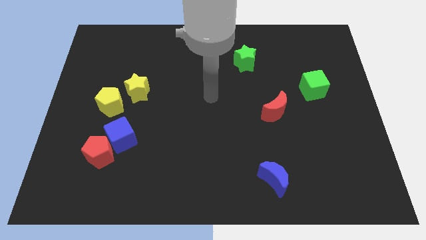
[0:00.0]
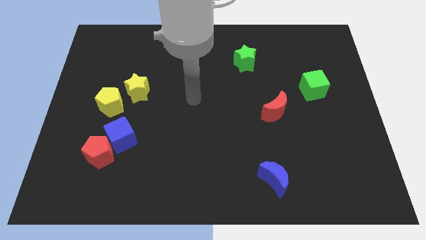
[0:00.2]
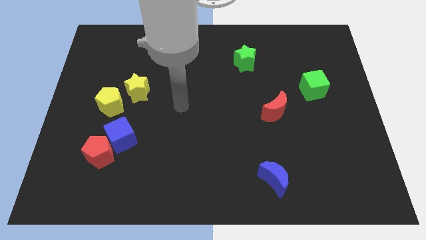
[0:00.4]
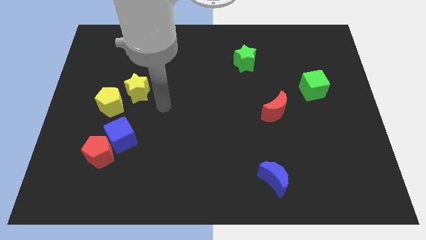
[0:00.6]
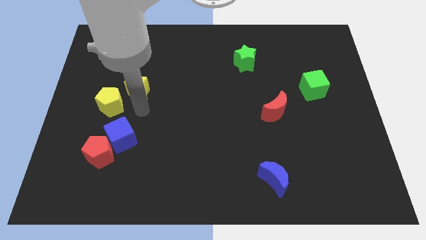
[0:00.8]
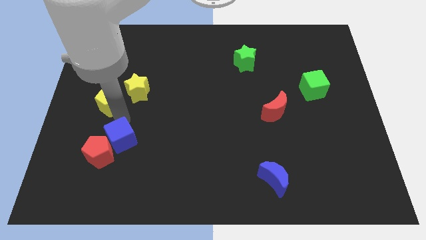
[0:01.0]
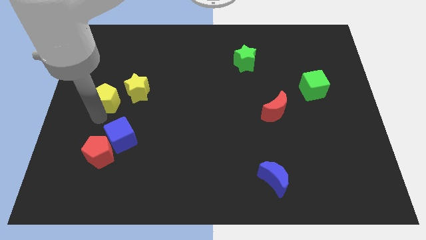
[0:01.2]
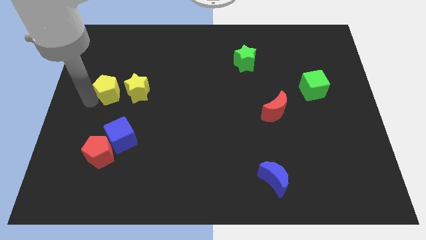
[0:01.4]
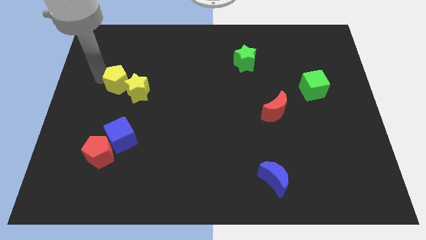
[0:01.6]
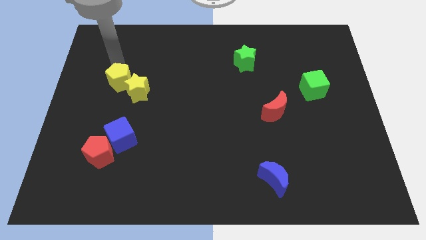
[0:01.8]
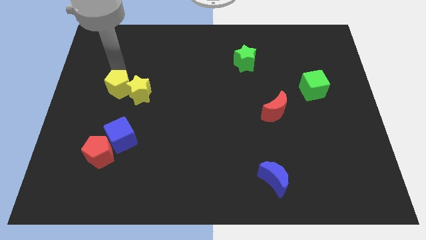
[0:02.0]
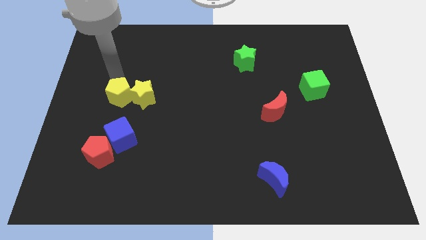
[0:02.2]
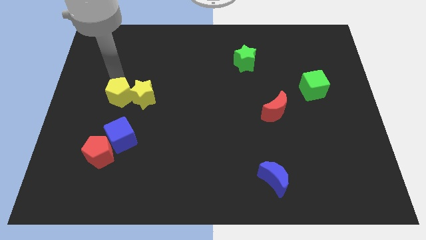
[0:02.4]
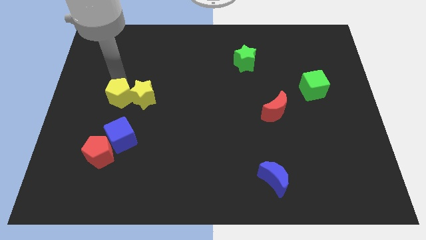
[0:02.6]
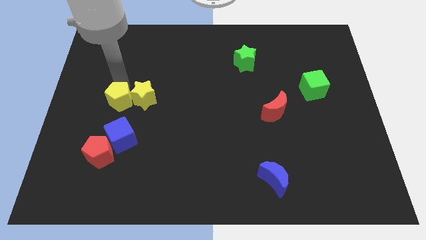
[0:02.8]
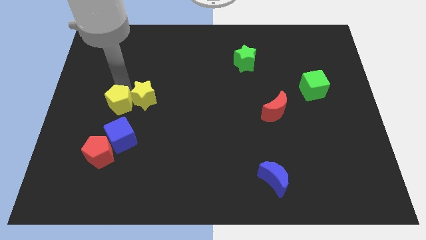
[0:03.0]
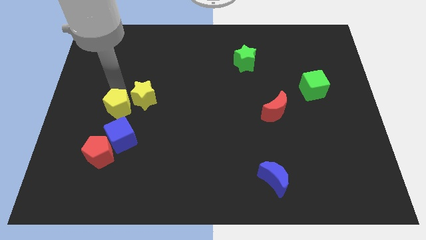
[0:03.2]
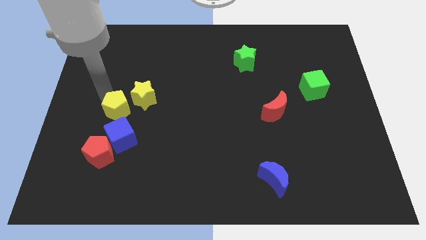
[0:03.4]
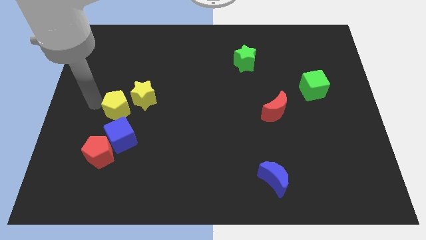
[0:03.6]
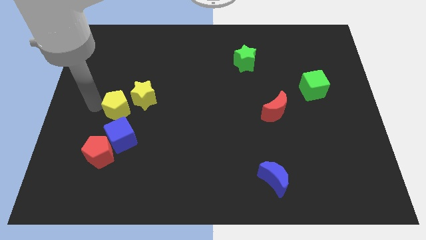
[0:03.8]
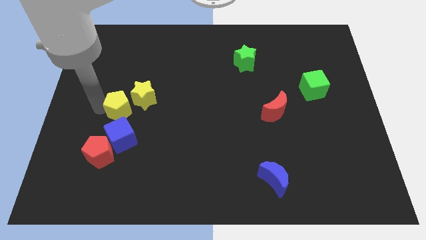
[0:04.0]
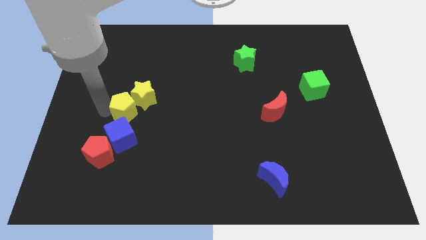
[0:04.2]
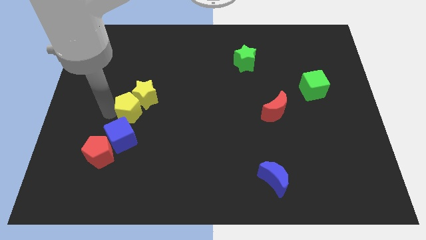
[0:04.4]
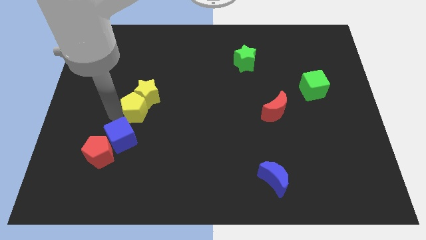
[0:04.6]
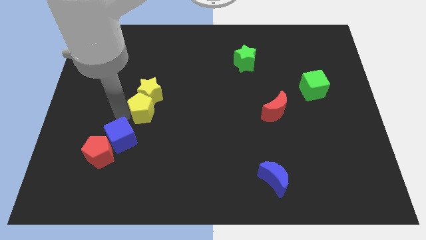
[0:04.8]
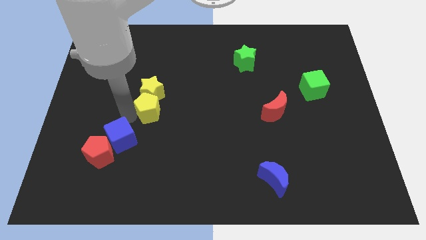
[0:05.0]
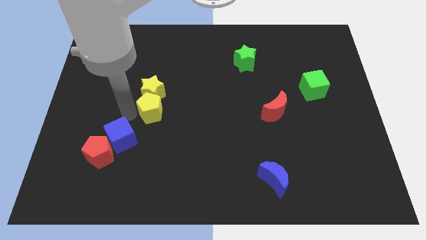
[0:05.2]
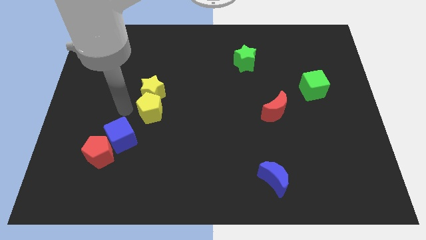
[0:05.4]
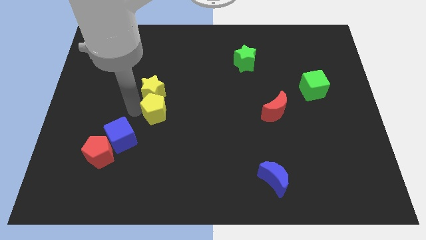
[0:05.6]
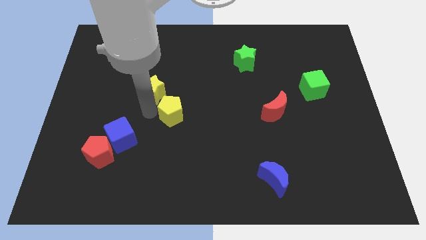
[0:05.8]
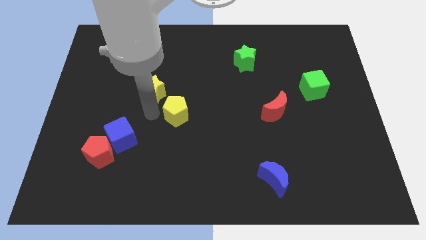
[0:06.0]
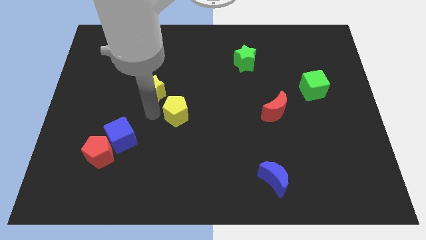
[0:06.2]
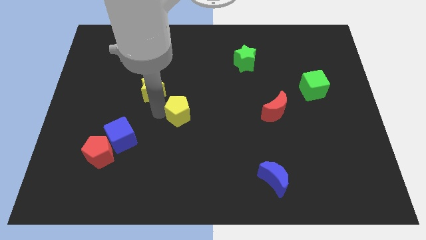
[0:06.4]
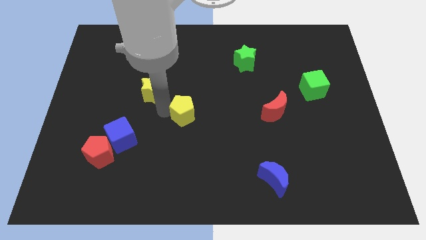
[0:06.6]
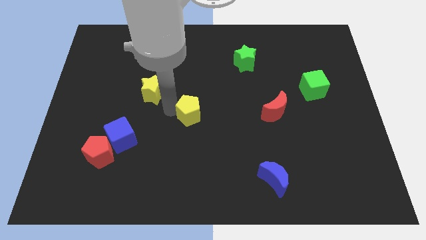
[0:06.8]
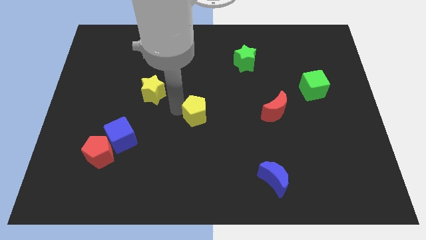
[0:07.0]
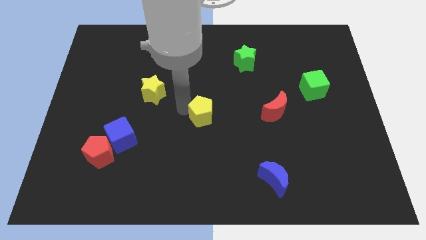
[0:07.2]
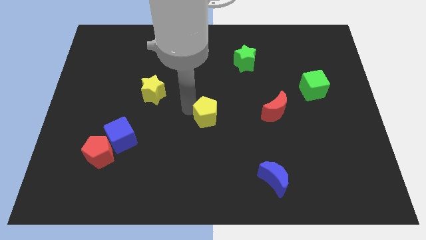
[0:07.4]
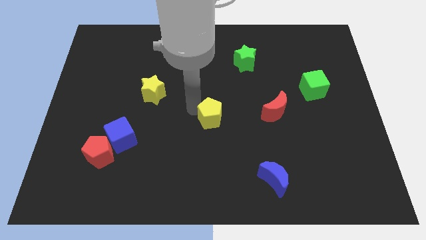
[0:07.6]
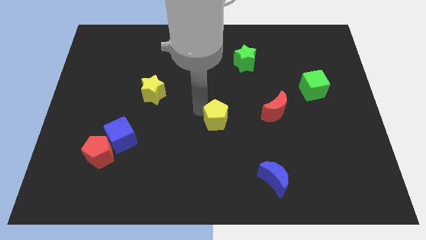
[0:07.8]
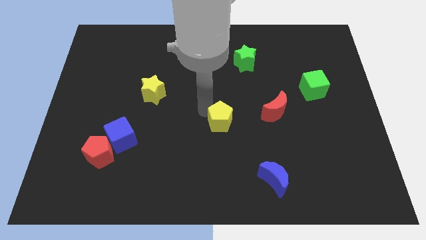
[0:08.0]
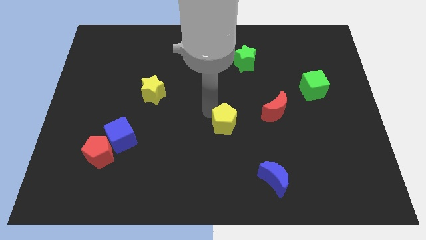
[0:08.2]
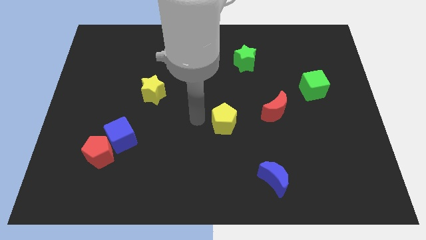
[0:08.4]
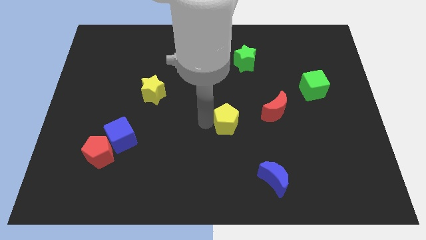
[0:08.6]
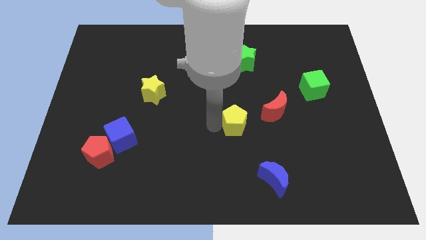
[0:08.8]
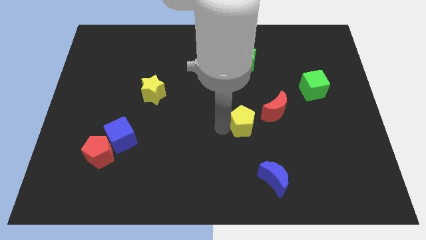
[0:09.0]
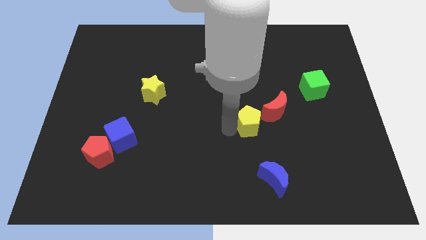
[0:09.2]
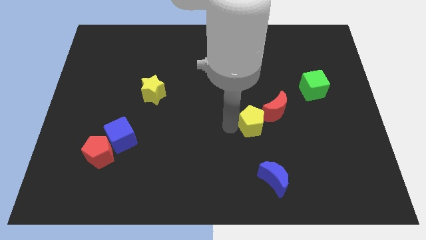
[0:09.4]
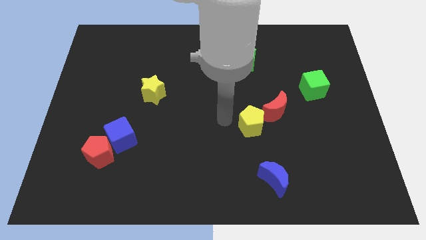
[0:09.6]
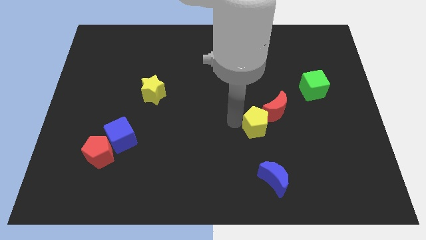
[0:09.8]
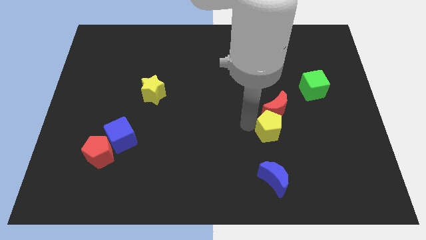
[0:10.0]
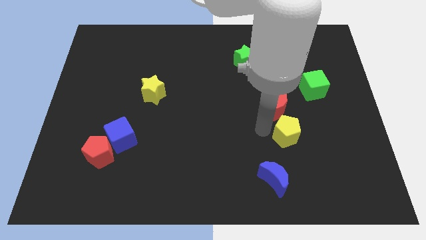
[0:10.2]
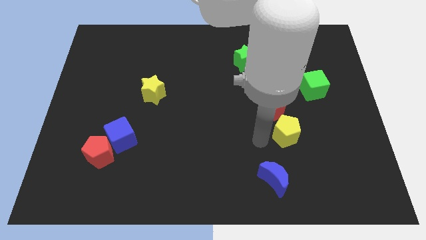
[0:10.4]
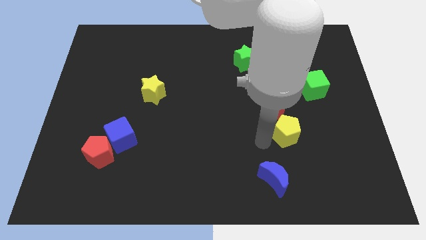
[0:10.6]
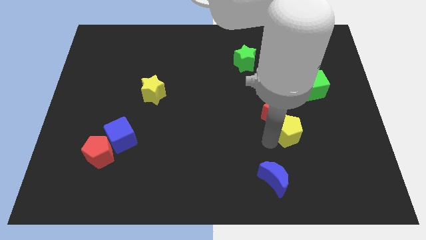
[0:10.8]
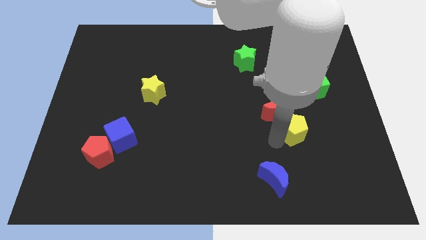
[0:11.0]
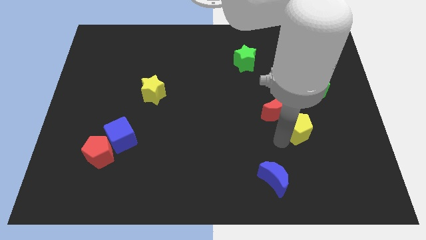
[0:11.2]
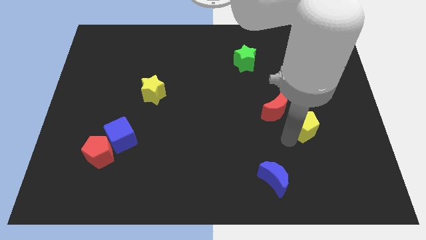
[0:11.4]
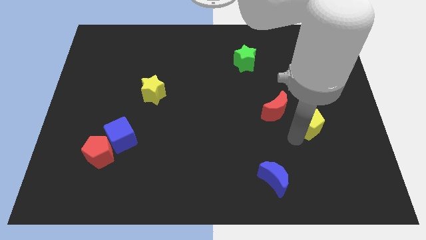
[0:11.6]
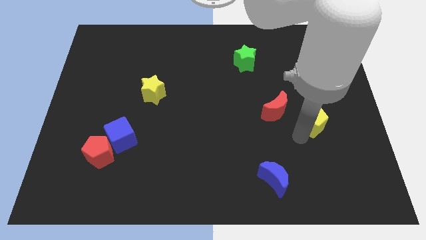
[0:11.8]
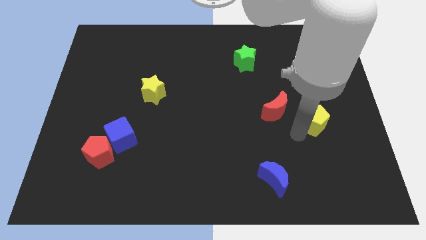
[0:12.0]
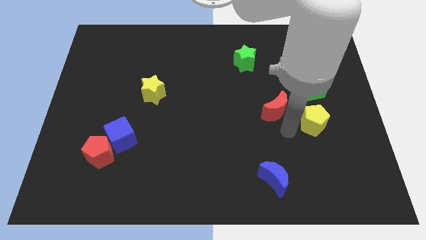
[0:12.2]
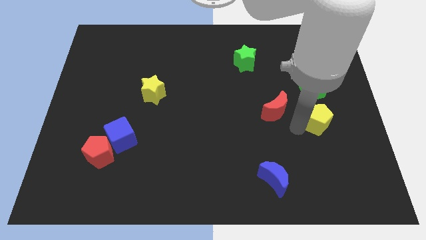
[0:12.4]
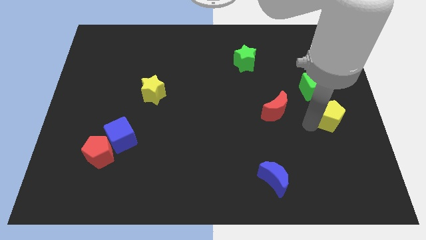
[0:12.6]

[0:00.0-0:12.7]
slide the yellow pentagon to the right side
